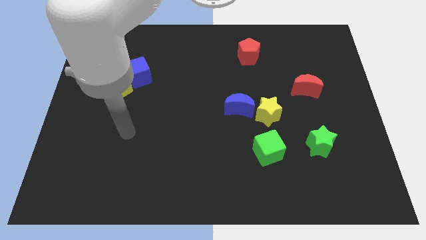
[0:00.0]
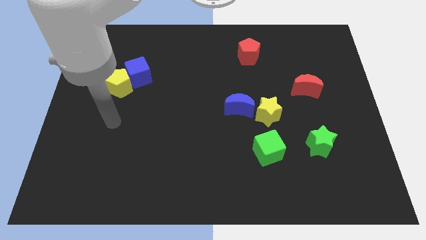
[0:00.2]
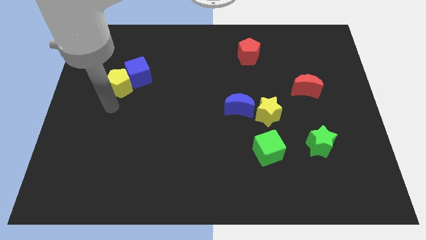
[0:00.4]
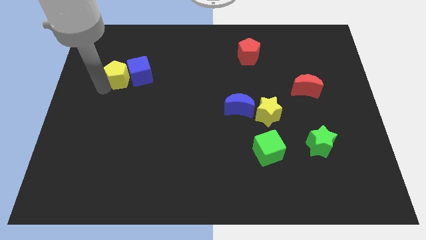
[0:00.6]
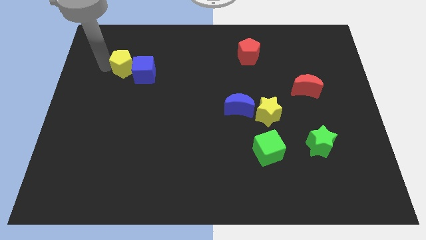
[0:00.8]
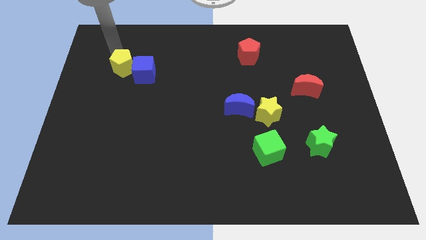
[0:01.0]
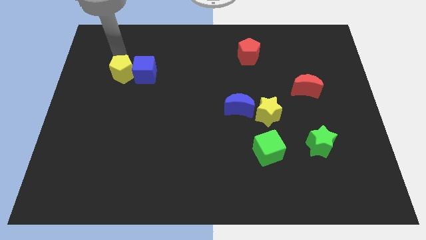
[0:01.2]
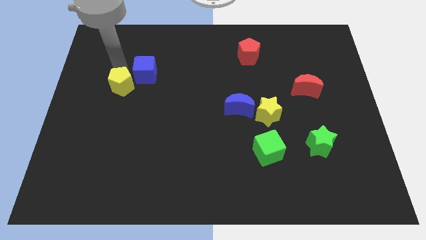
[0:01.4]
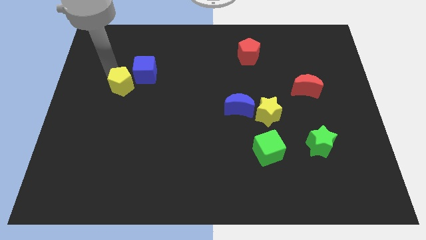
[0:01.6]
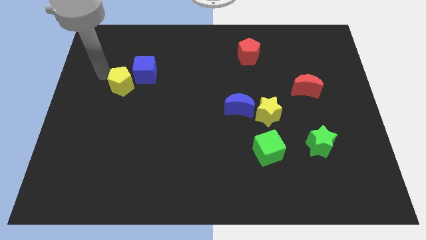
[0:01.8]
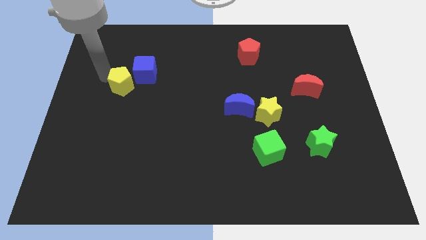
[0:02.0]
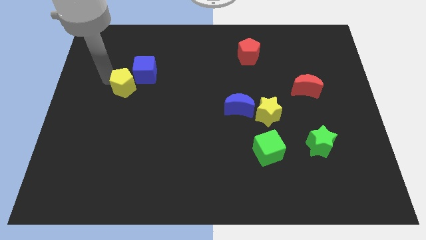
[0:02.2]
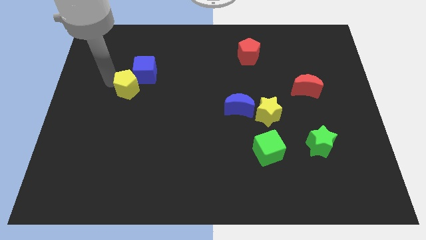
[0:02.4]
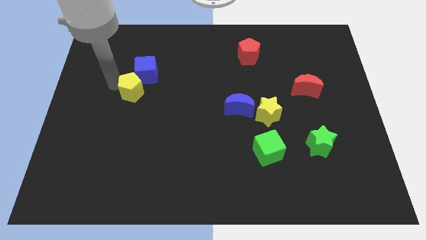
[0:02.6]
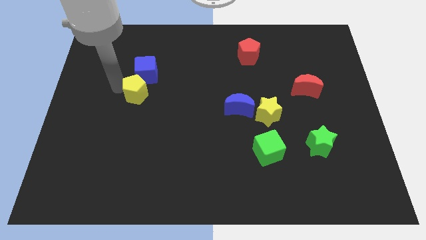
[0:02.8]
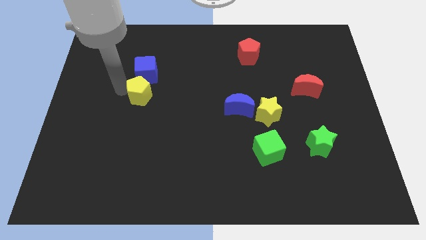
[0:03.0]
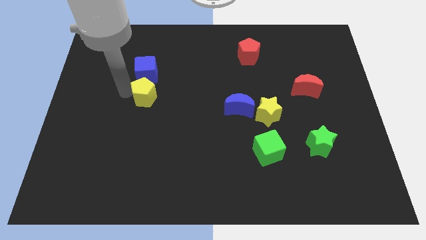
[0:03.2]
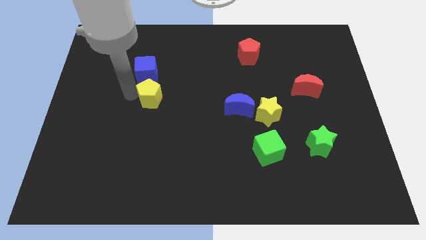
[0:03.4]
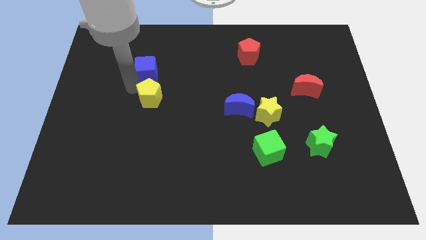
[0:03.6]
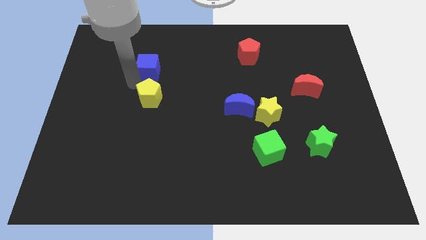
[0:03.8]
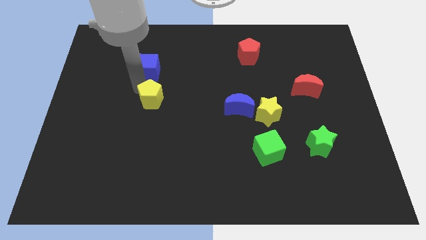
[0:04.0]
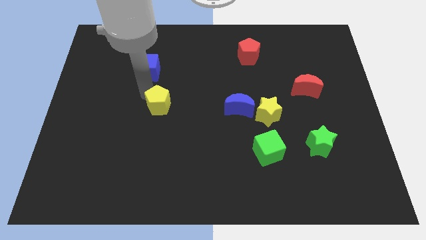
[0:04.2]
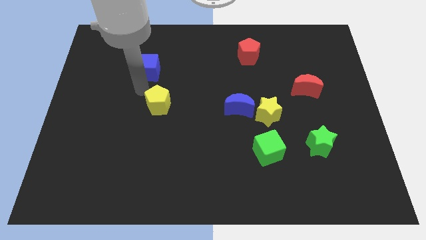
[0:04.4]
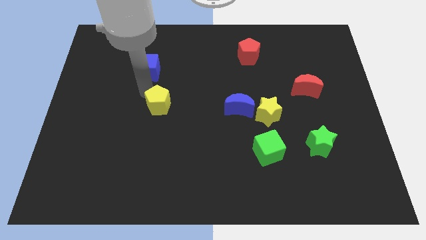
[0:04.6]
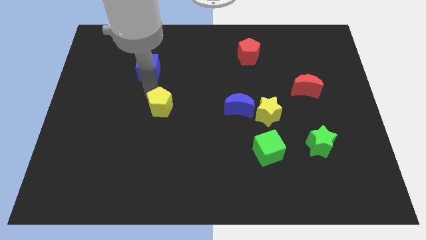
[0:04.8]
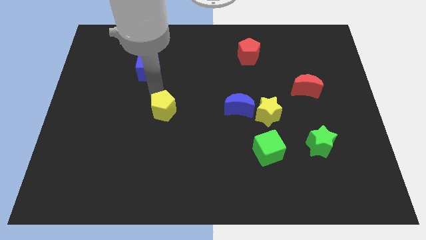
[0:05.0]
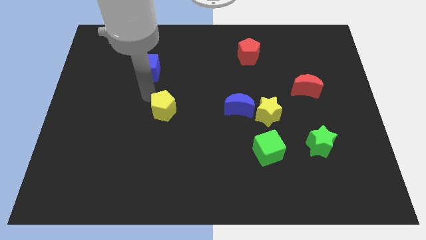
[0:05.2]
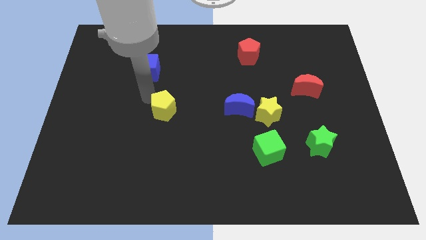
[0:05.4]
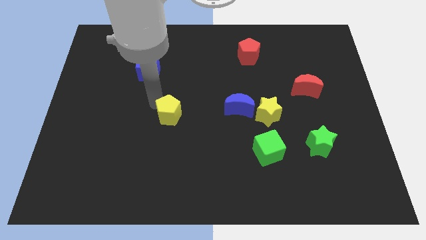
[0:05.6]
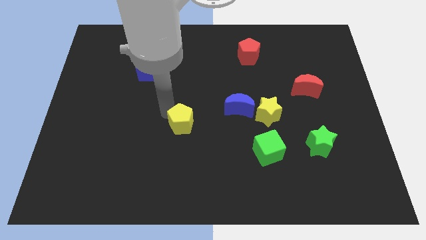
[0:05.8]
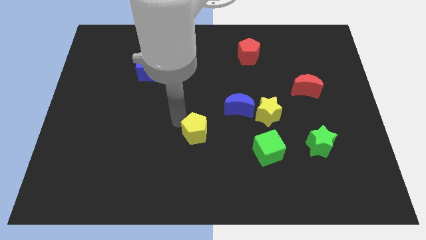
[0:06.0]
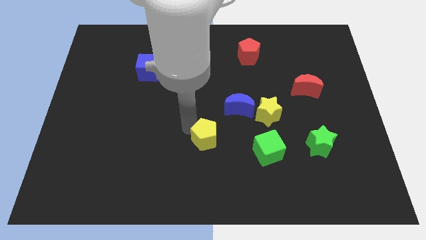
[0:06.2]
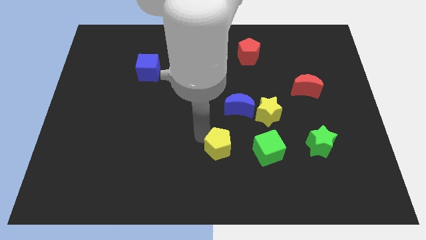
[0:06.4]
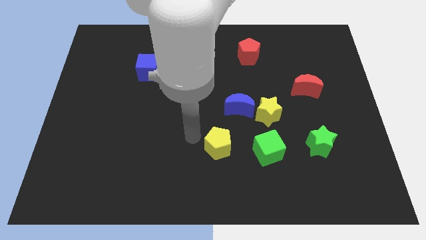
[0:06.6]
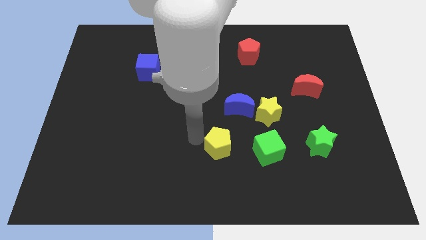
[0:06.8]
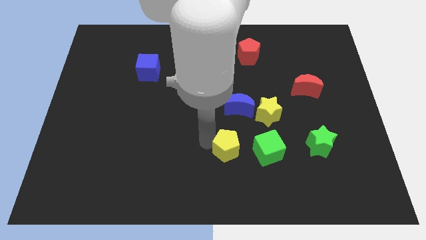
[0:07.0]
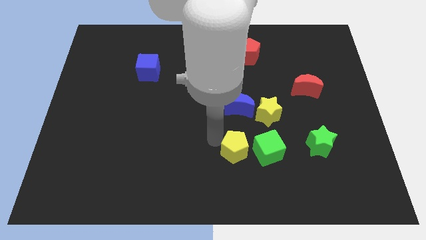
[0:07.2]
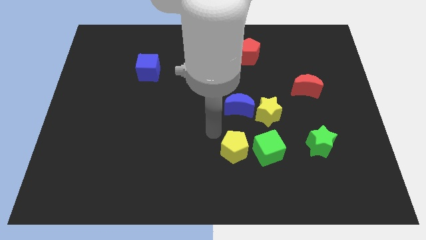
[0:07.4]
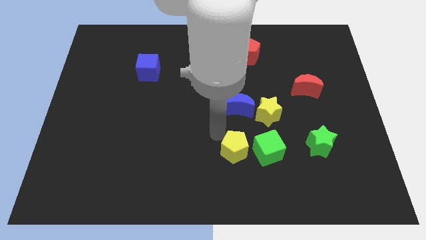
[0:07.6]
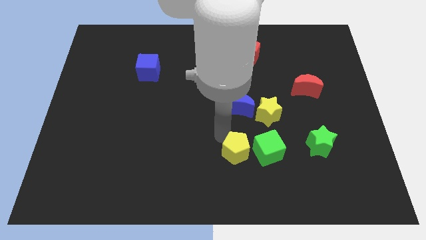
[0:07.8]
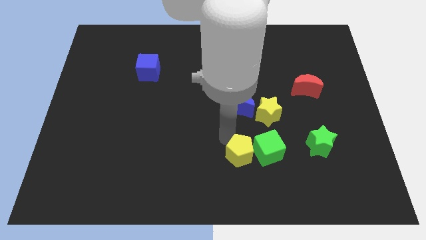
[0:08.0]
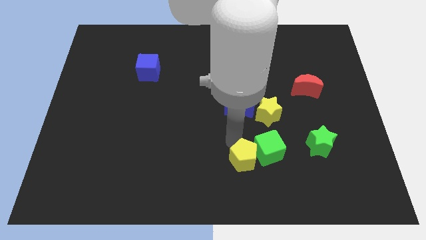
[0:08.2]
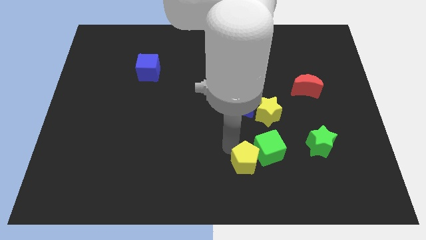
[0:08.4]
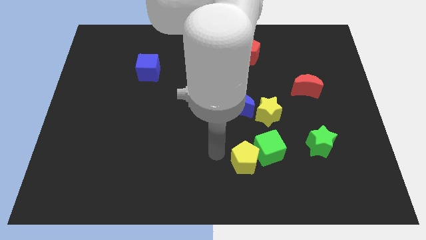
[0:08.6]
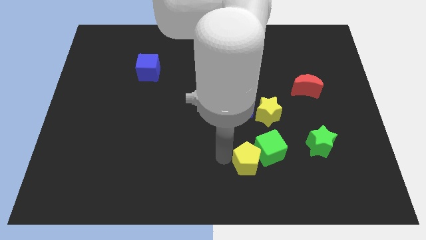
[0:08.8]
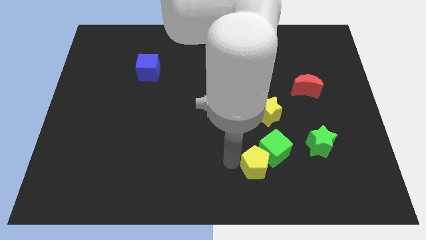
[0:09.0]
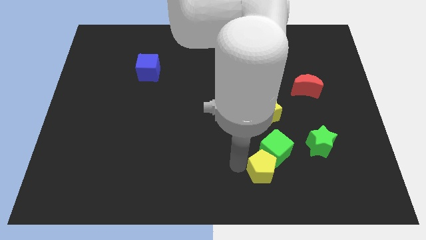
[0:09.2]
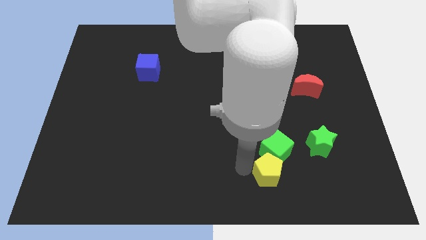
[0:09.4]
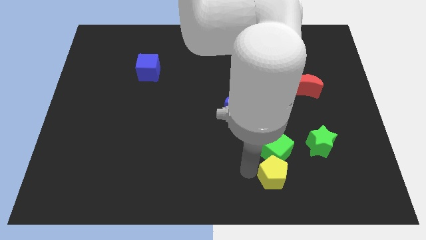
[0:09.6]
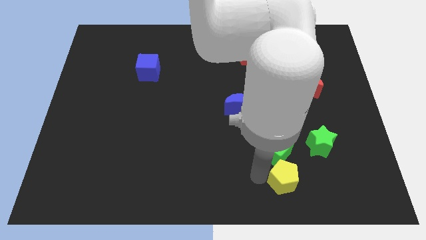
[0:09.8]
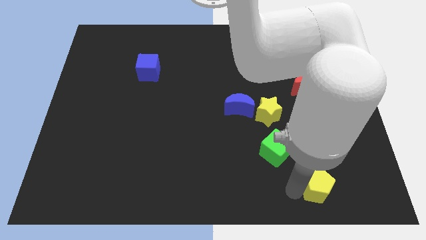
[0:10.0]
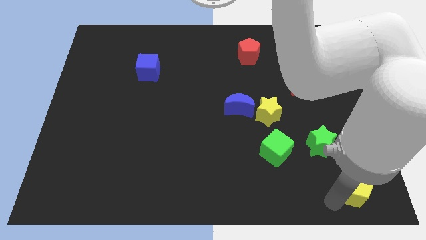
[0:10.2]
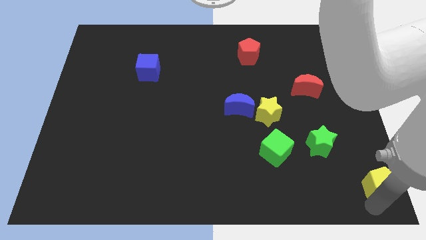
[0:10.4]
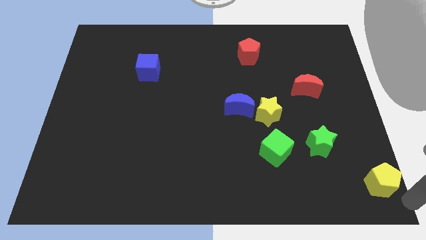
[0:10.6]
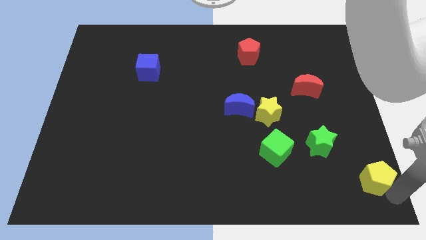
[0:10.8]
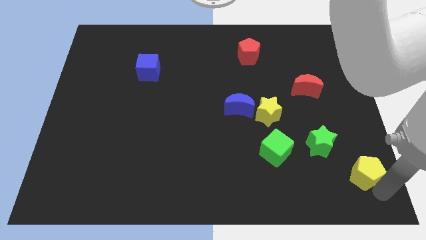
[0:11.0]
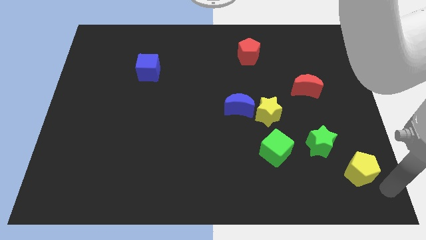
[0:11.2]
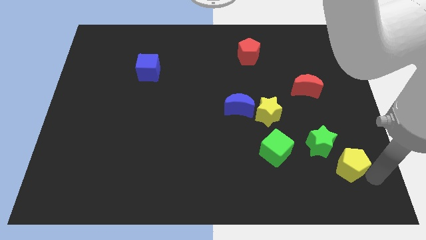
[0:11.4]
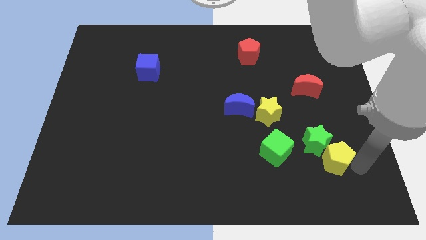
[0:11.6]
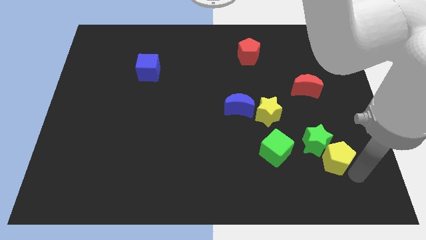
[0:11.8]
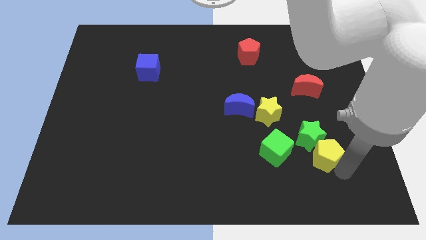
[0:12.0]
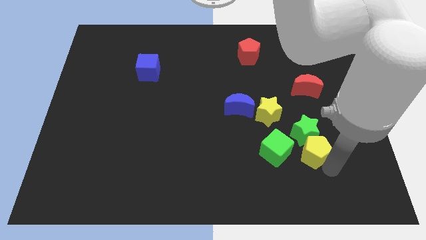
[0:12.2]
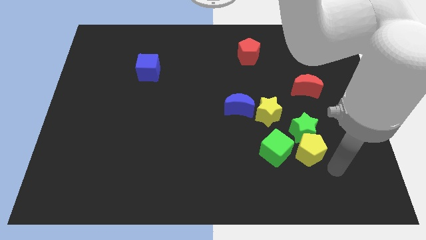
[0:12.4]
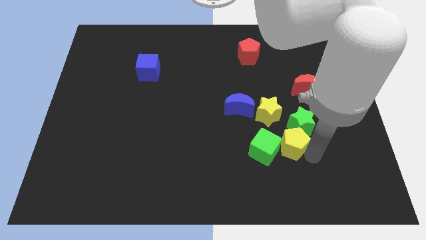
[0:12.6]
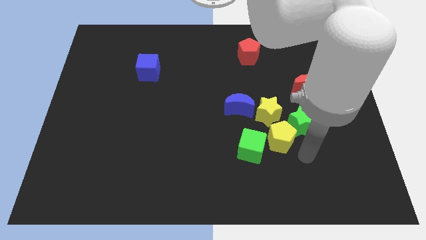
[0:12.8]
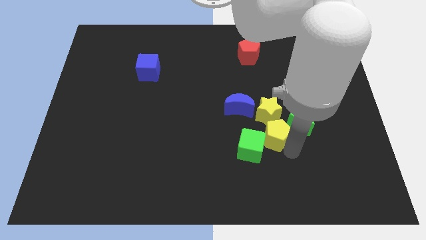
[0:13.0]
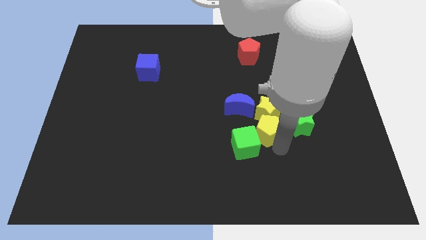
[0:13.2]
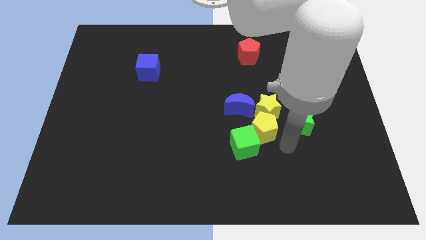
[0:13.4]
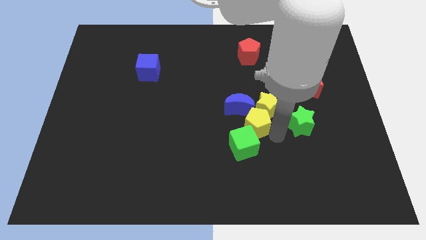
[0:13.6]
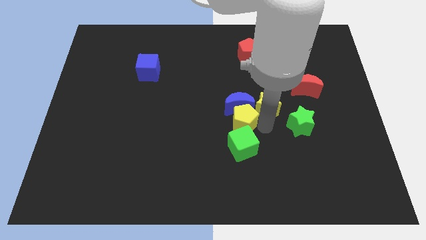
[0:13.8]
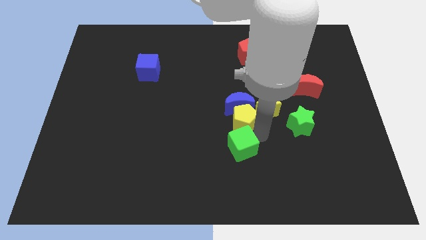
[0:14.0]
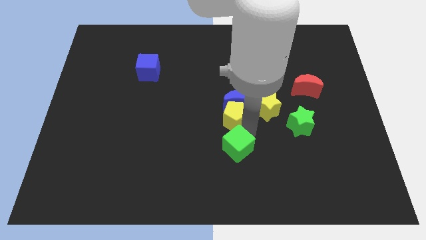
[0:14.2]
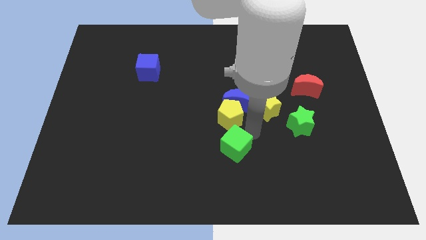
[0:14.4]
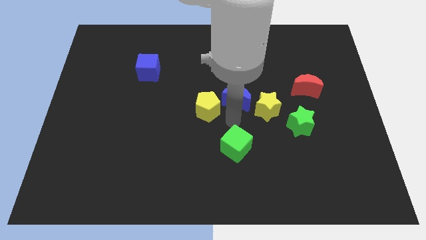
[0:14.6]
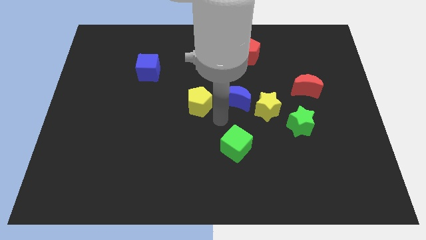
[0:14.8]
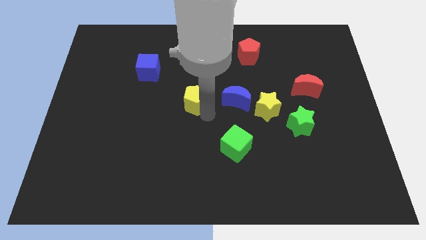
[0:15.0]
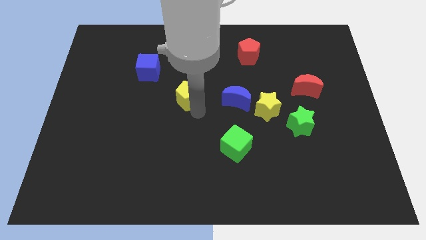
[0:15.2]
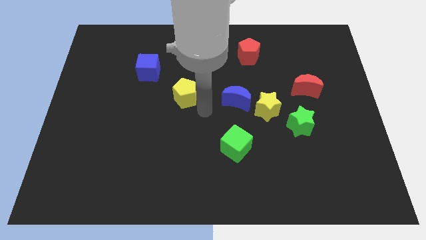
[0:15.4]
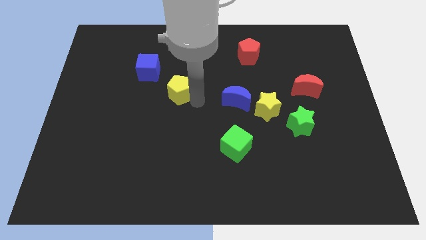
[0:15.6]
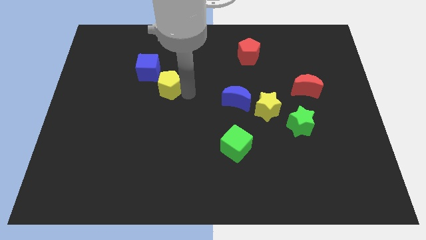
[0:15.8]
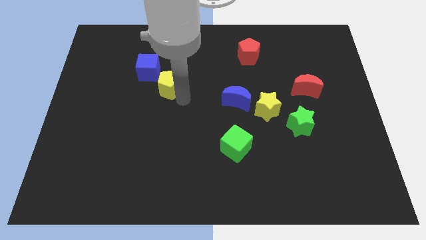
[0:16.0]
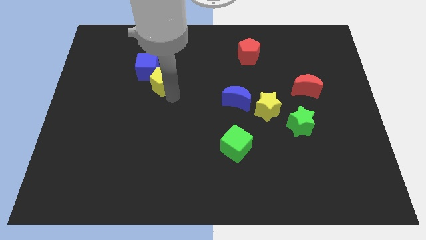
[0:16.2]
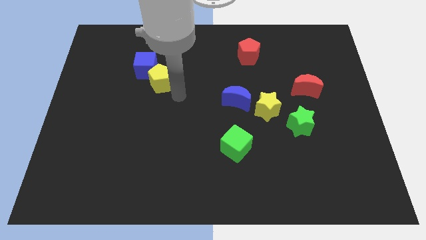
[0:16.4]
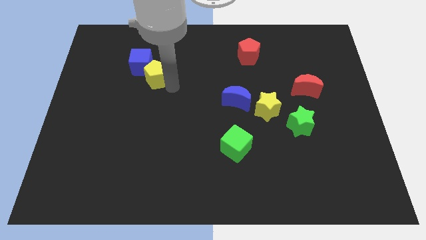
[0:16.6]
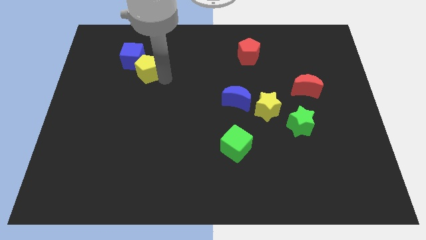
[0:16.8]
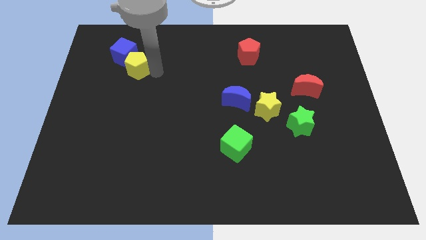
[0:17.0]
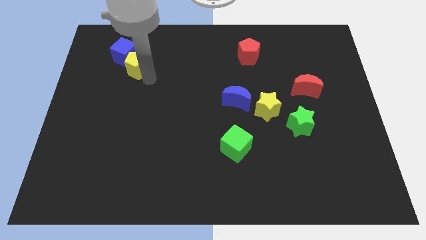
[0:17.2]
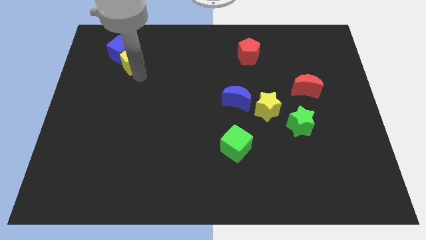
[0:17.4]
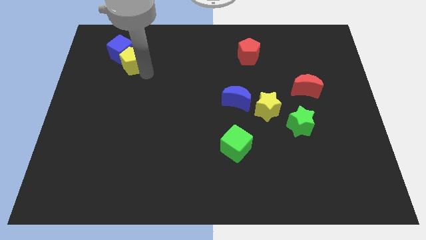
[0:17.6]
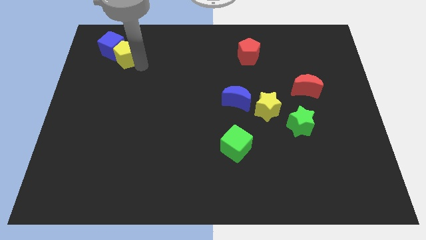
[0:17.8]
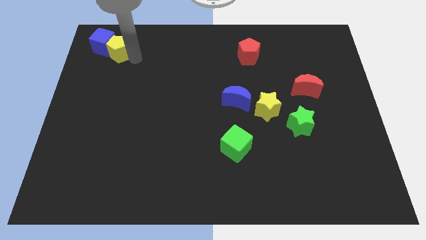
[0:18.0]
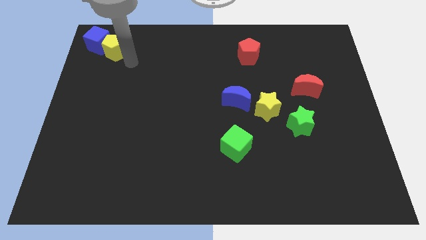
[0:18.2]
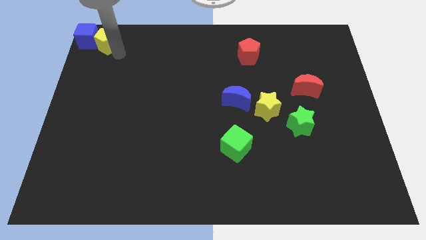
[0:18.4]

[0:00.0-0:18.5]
slide the yellow pentagon to the top left of the board
